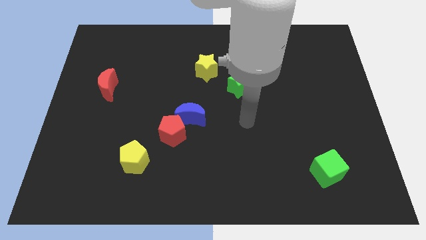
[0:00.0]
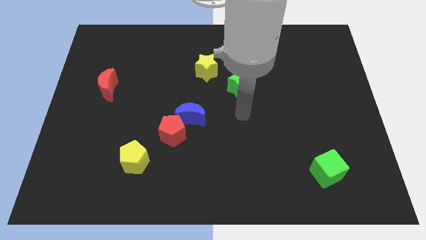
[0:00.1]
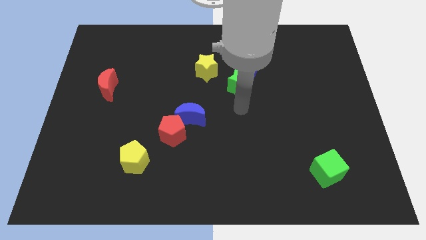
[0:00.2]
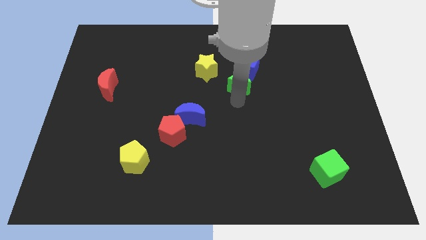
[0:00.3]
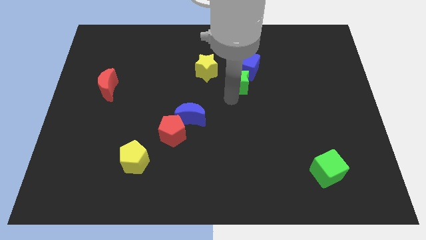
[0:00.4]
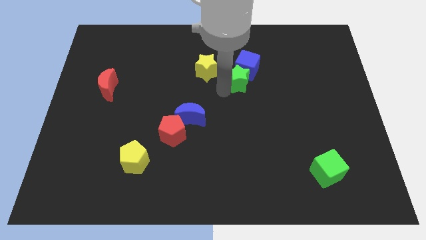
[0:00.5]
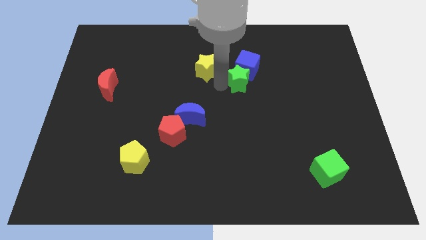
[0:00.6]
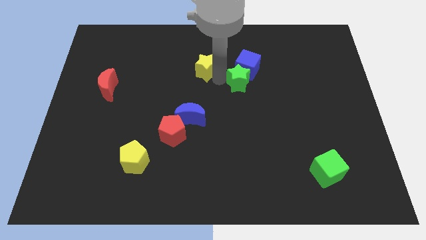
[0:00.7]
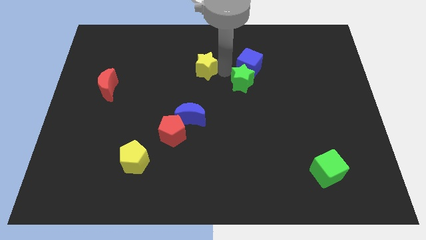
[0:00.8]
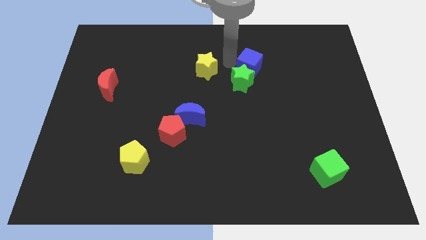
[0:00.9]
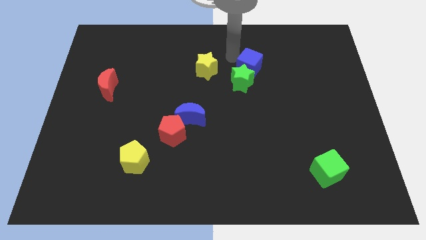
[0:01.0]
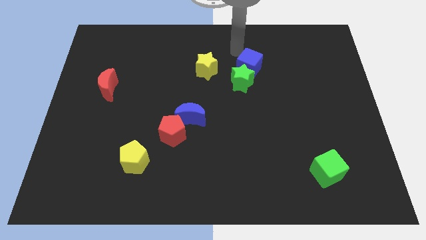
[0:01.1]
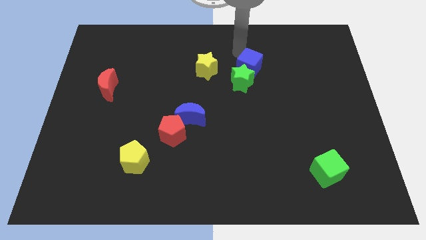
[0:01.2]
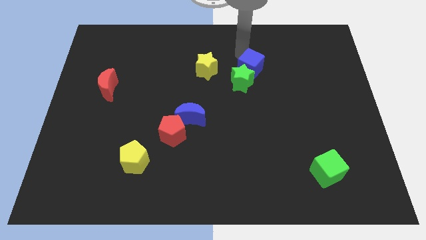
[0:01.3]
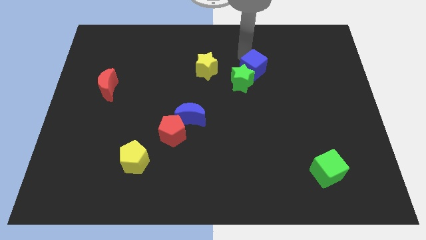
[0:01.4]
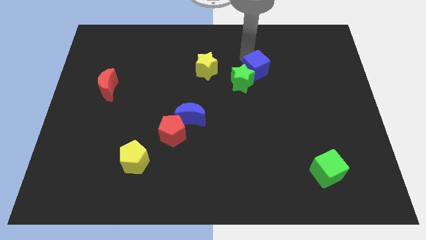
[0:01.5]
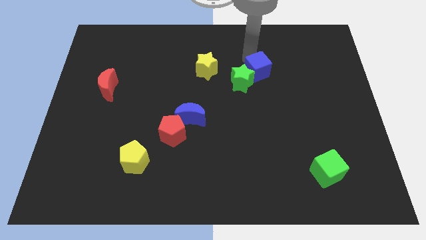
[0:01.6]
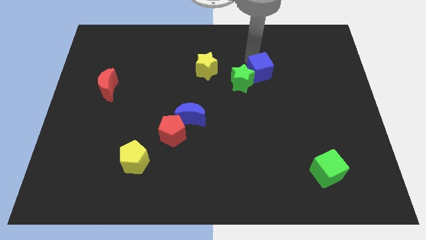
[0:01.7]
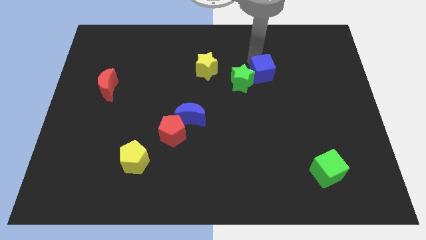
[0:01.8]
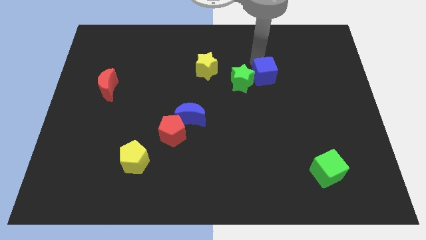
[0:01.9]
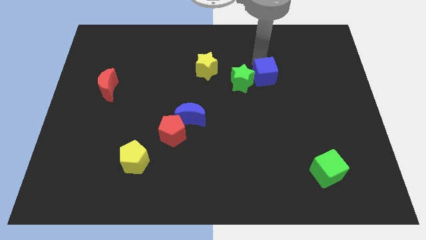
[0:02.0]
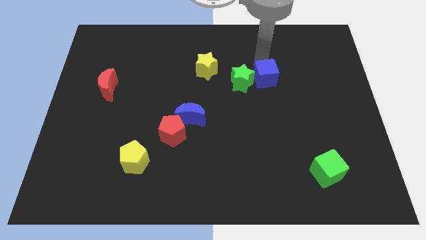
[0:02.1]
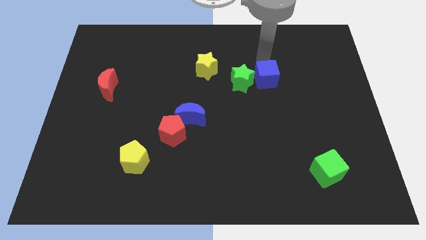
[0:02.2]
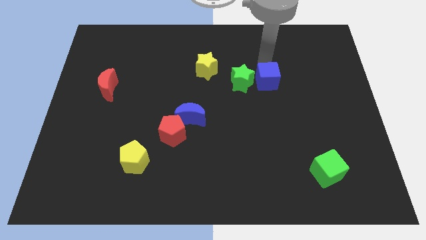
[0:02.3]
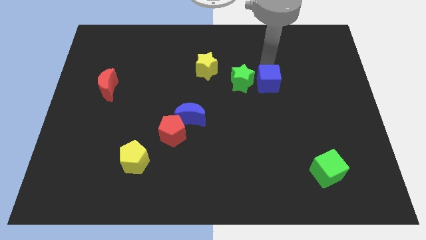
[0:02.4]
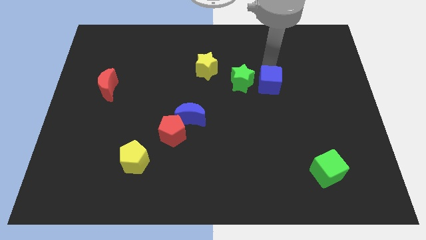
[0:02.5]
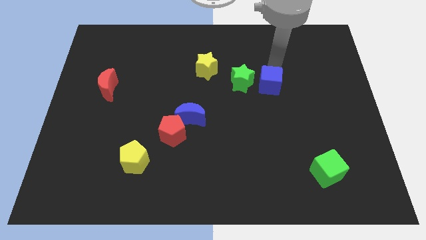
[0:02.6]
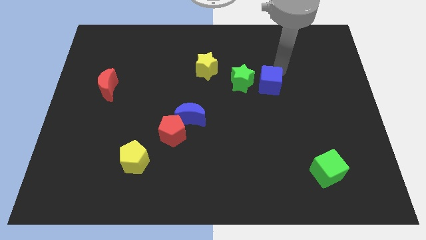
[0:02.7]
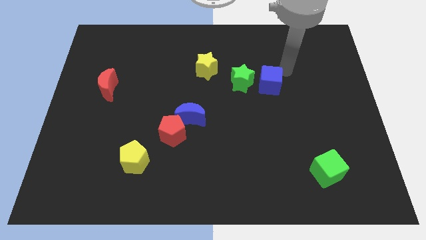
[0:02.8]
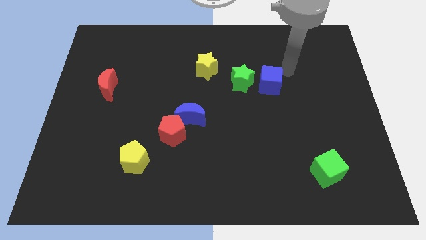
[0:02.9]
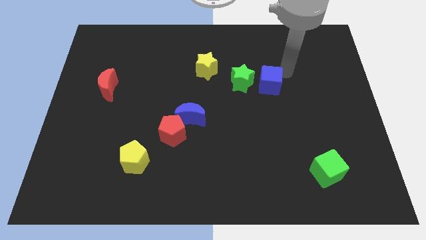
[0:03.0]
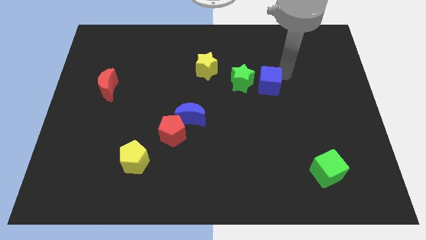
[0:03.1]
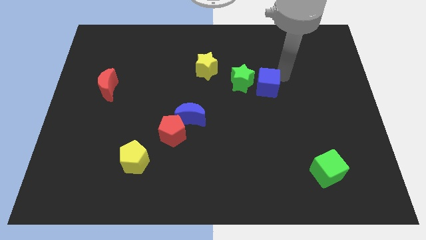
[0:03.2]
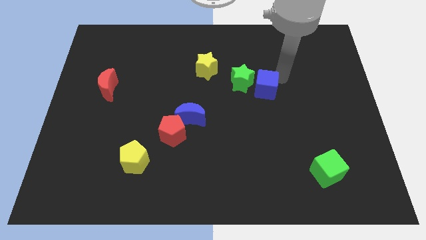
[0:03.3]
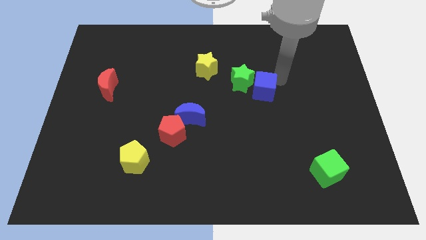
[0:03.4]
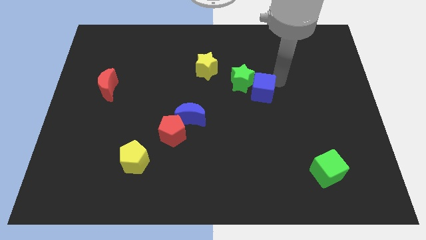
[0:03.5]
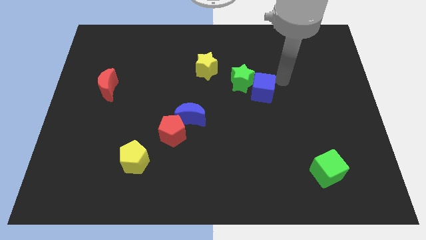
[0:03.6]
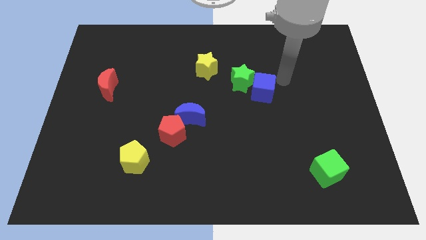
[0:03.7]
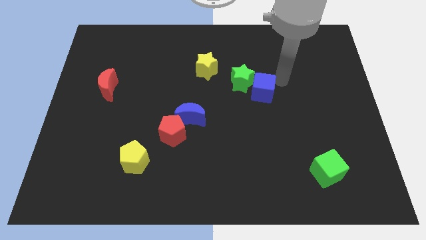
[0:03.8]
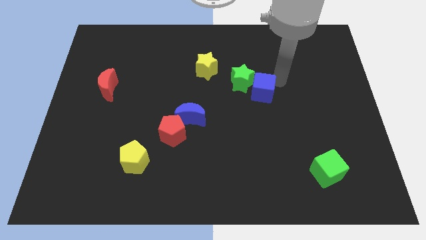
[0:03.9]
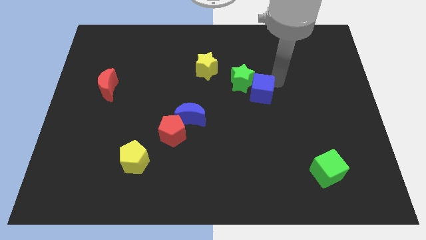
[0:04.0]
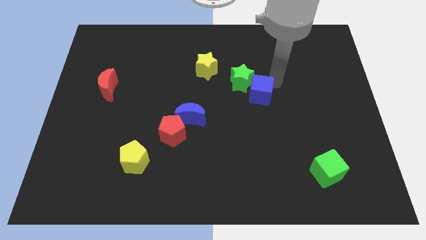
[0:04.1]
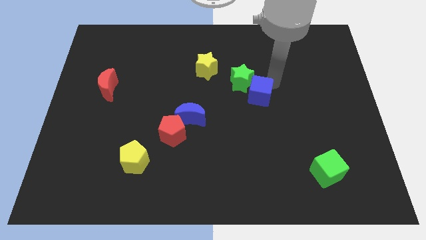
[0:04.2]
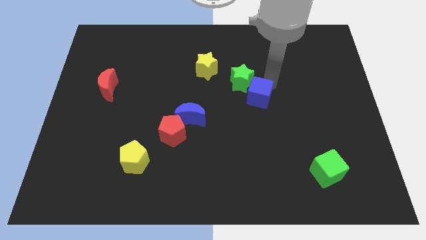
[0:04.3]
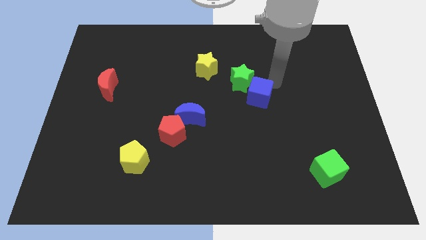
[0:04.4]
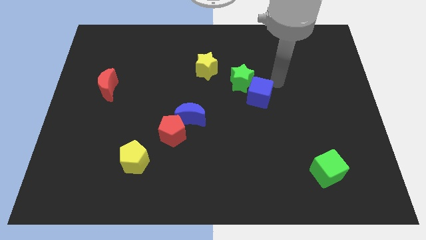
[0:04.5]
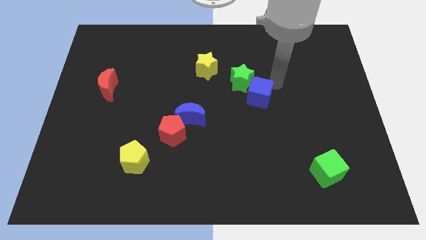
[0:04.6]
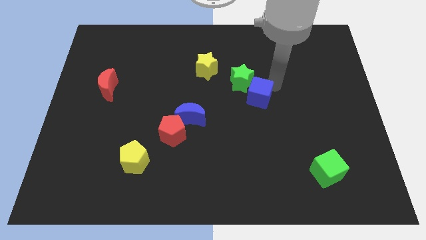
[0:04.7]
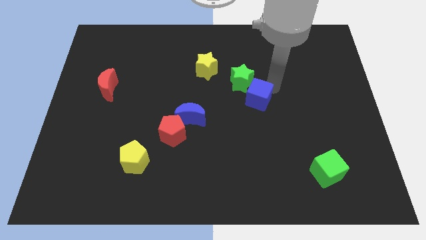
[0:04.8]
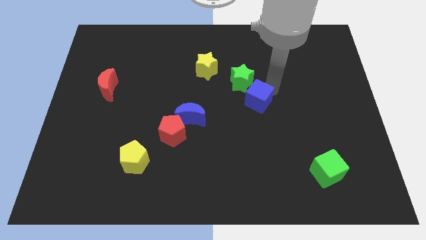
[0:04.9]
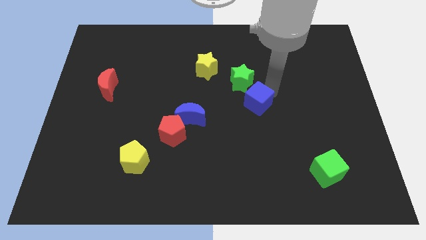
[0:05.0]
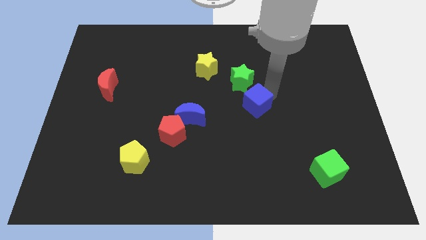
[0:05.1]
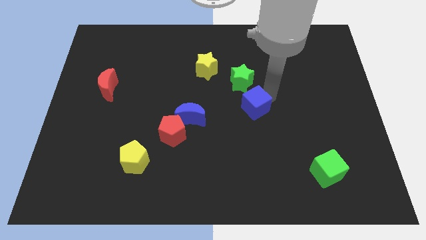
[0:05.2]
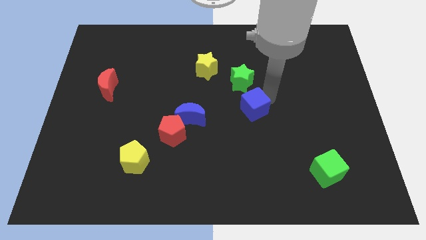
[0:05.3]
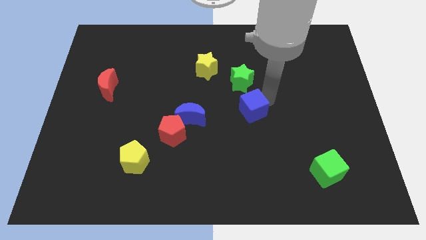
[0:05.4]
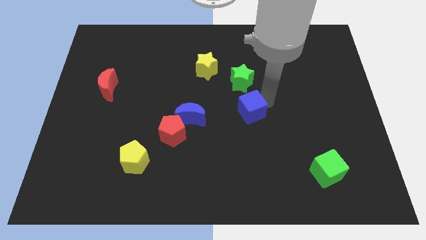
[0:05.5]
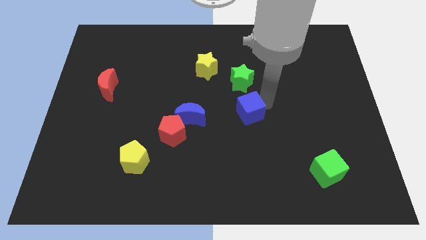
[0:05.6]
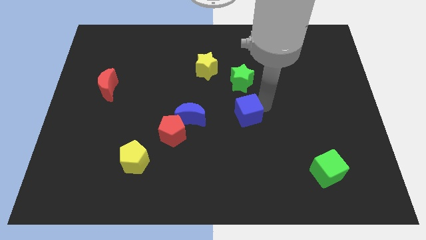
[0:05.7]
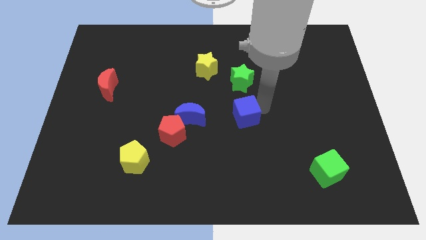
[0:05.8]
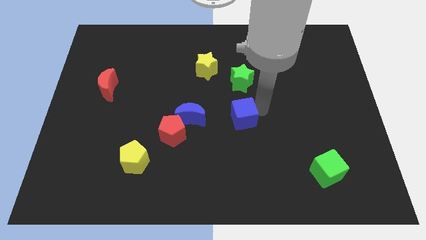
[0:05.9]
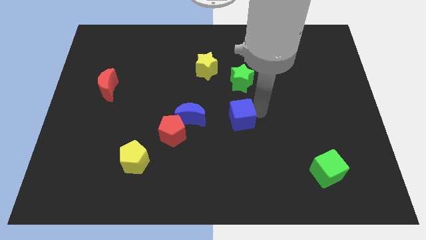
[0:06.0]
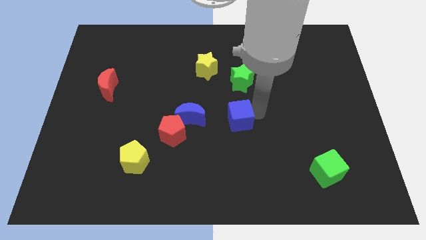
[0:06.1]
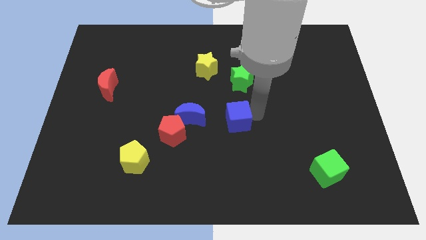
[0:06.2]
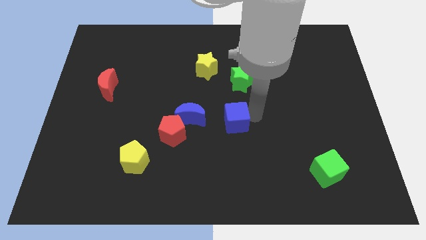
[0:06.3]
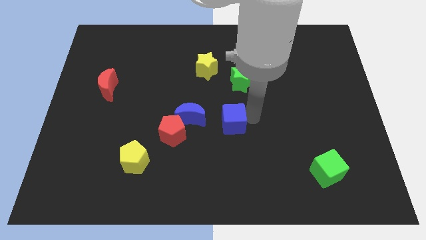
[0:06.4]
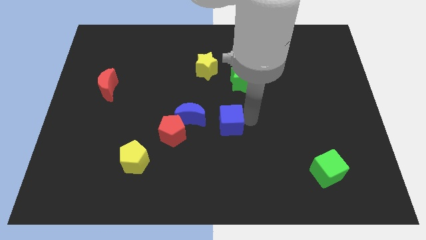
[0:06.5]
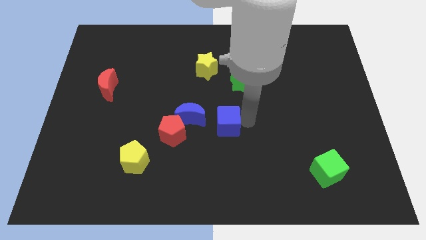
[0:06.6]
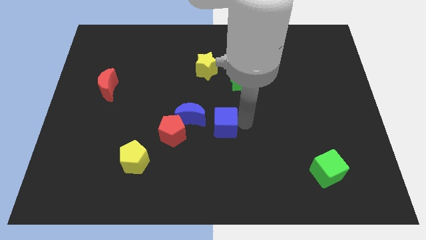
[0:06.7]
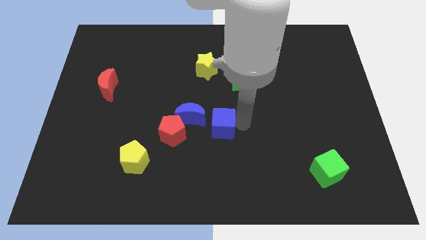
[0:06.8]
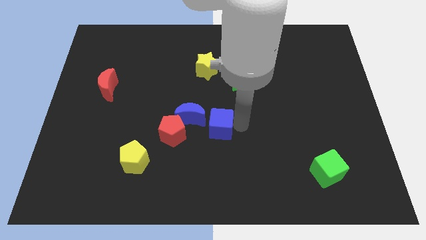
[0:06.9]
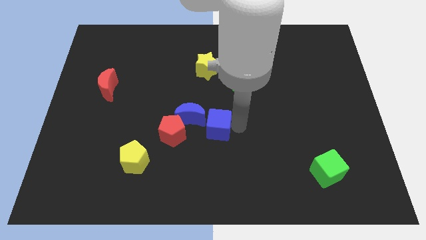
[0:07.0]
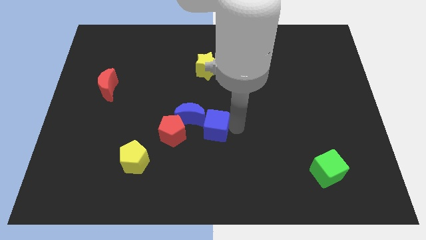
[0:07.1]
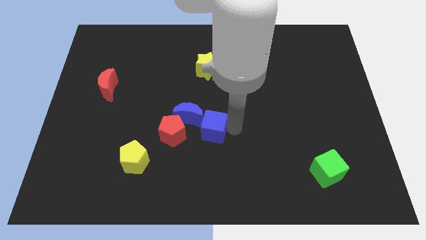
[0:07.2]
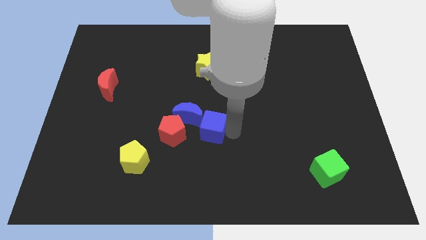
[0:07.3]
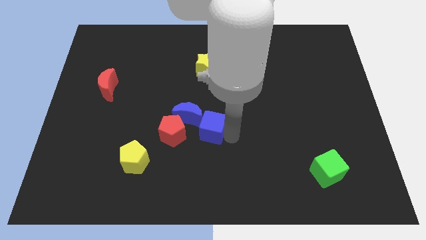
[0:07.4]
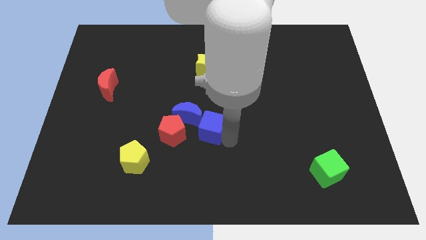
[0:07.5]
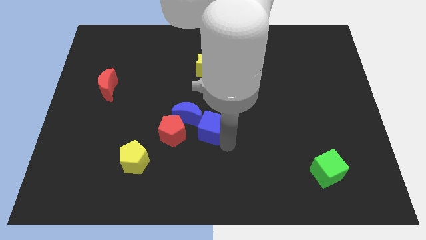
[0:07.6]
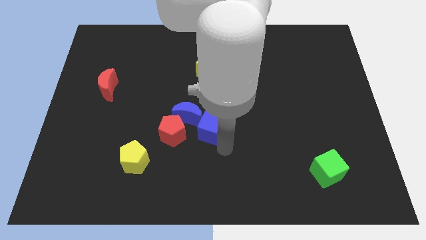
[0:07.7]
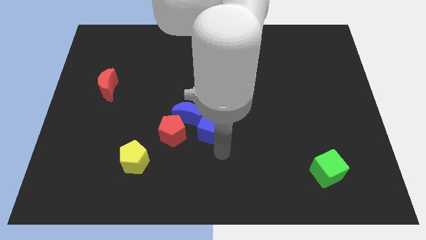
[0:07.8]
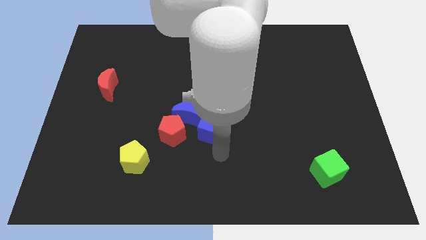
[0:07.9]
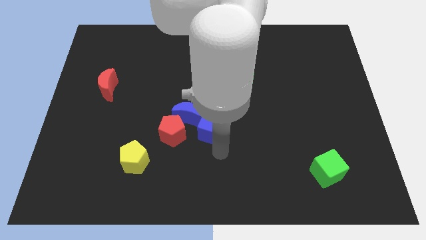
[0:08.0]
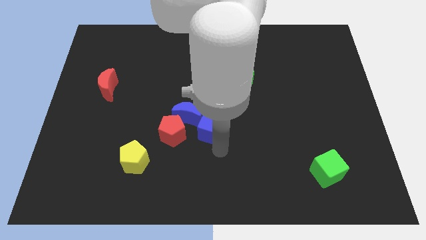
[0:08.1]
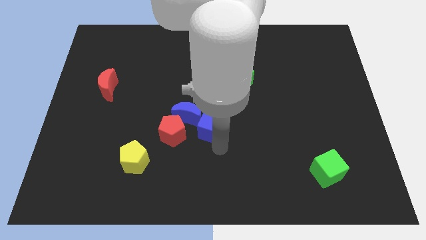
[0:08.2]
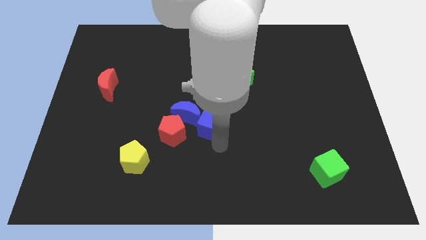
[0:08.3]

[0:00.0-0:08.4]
push the blue cube next to the blue moon
